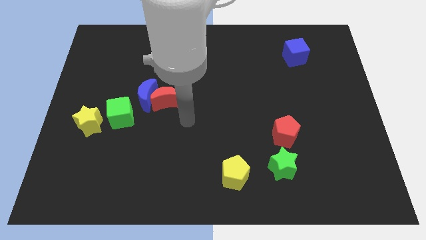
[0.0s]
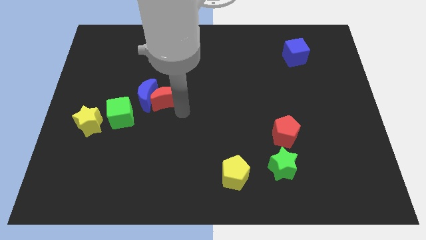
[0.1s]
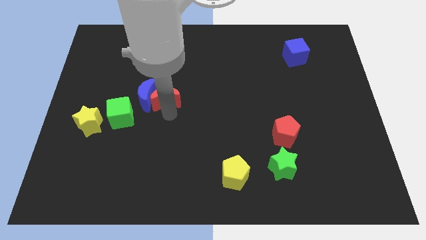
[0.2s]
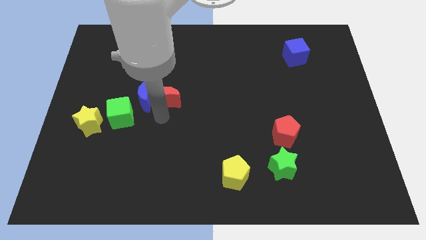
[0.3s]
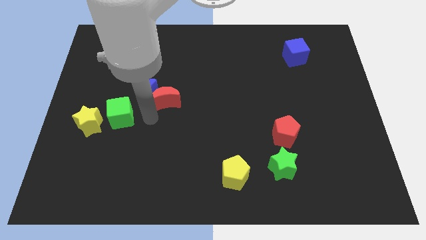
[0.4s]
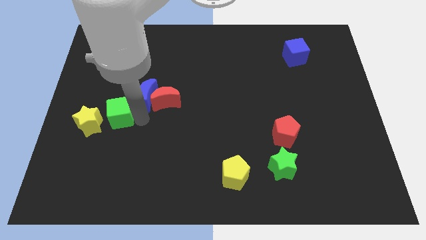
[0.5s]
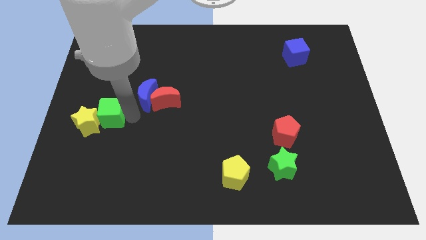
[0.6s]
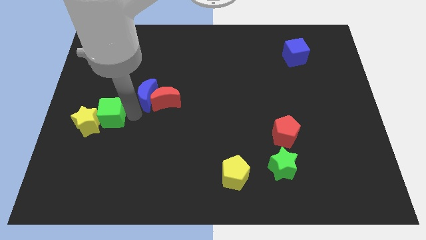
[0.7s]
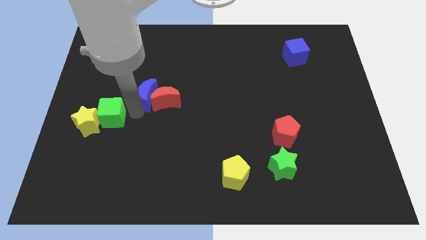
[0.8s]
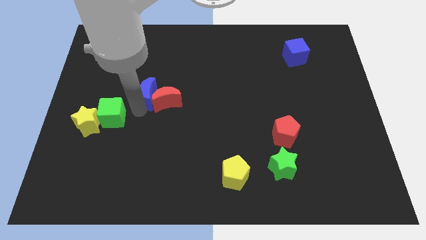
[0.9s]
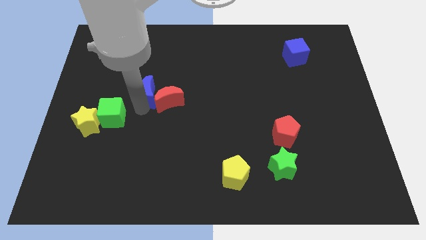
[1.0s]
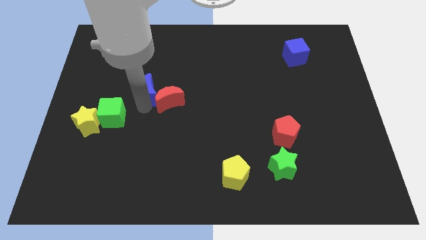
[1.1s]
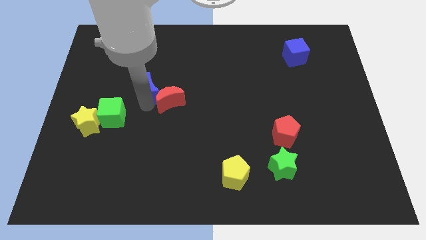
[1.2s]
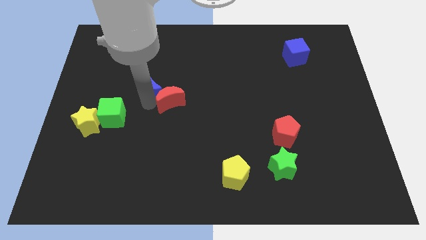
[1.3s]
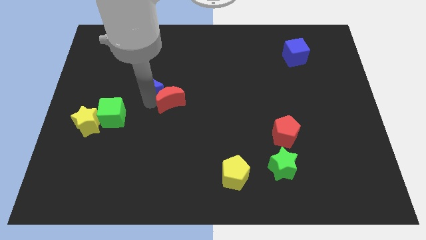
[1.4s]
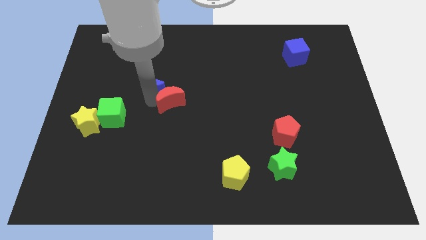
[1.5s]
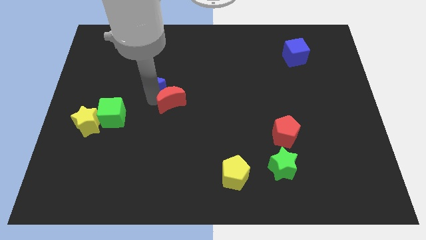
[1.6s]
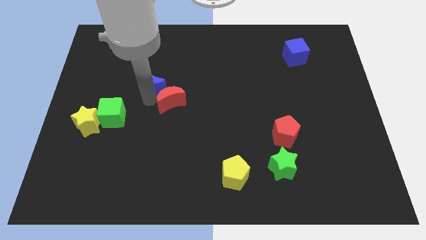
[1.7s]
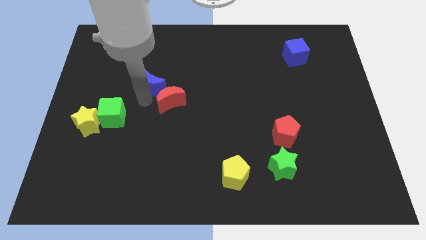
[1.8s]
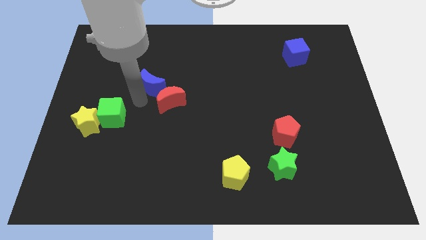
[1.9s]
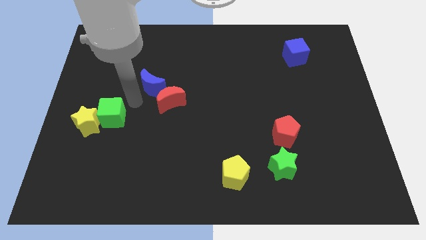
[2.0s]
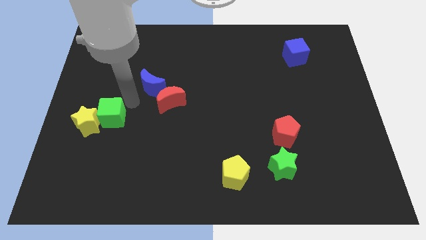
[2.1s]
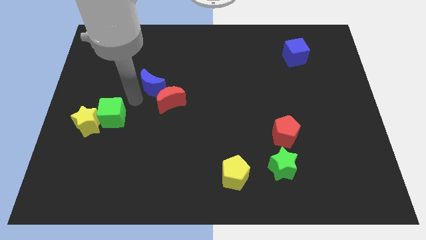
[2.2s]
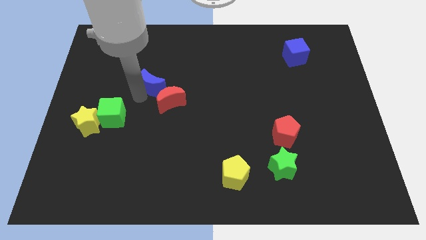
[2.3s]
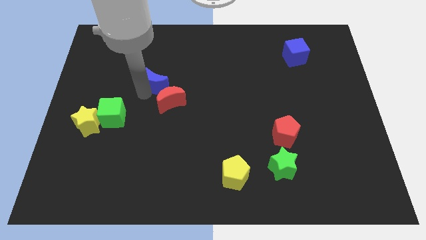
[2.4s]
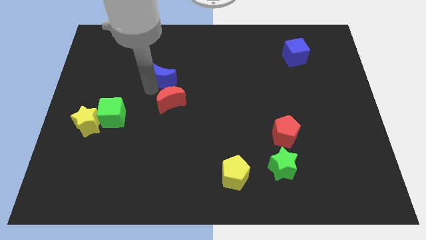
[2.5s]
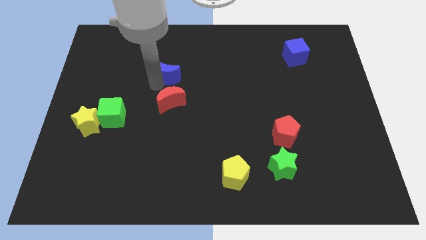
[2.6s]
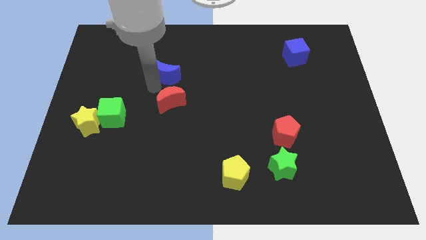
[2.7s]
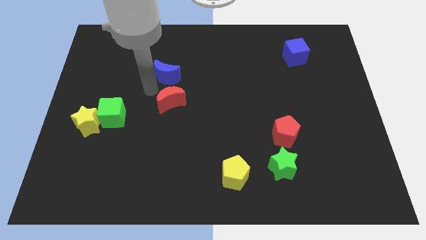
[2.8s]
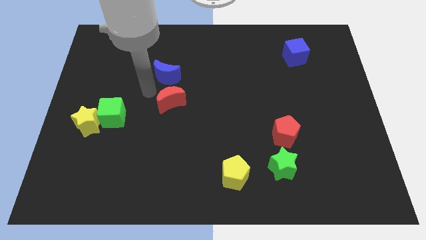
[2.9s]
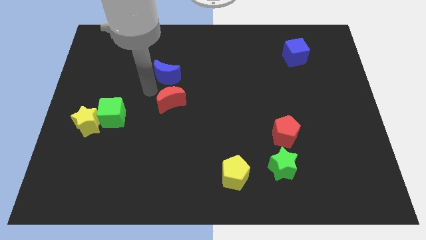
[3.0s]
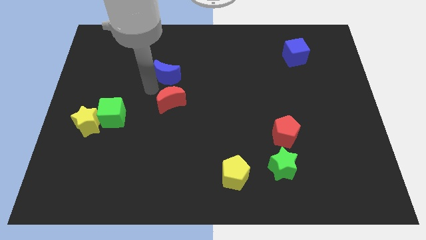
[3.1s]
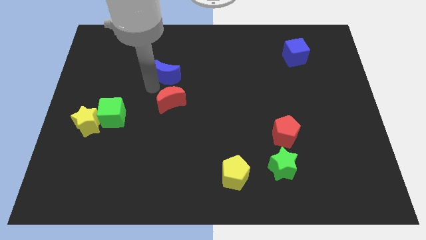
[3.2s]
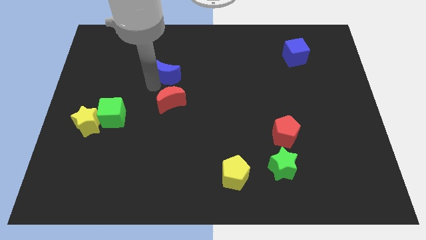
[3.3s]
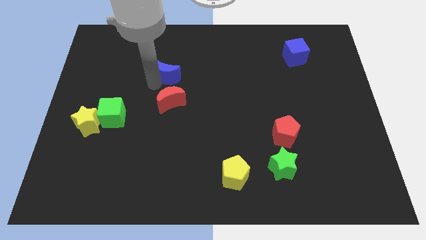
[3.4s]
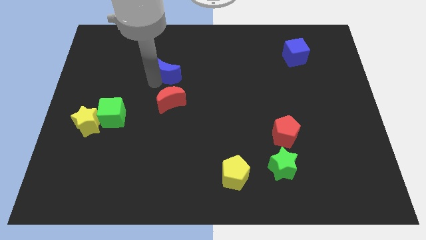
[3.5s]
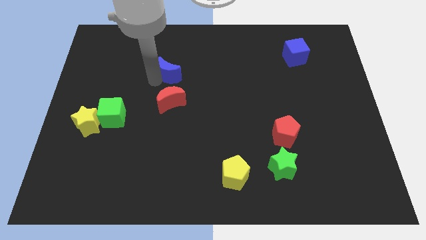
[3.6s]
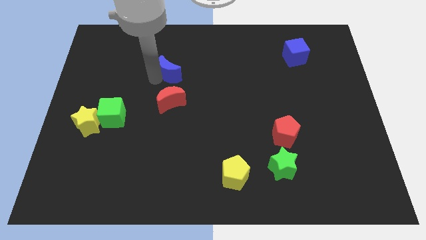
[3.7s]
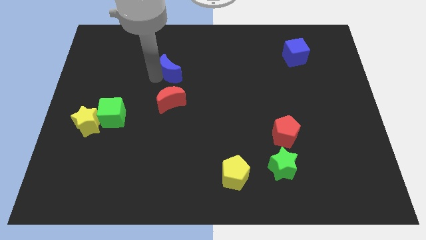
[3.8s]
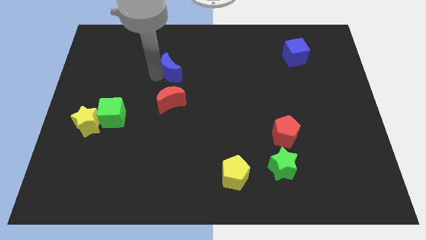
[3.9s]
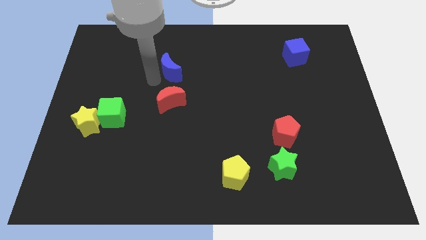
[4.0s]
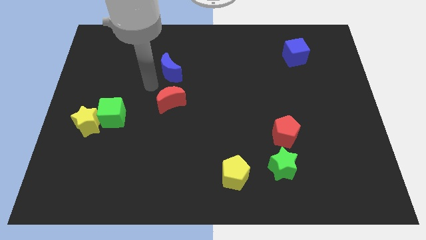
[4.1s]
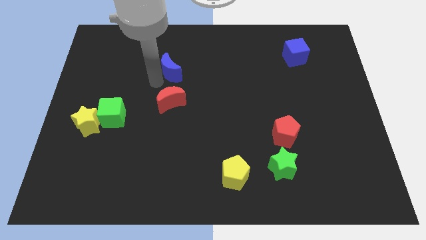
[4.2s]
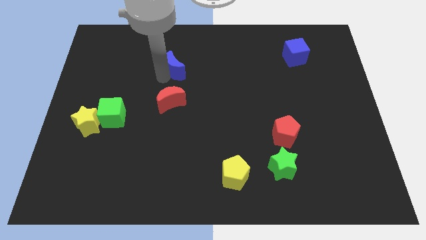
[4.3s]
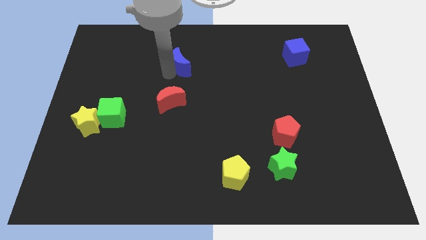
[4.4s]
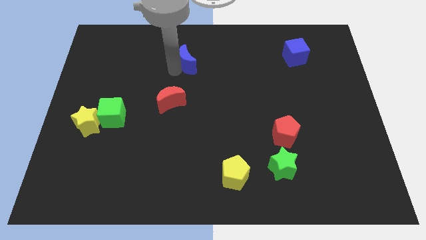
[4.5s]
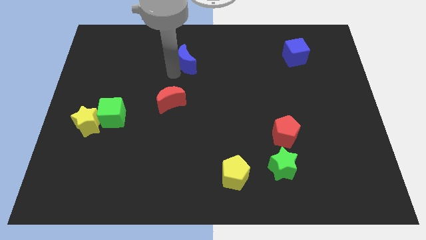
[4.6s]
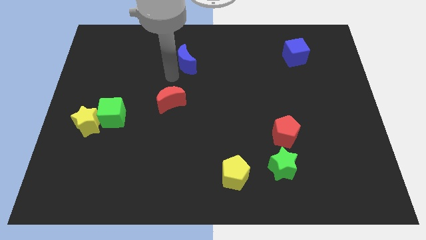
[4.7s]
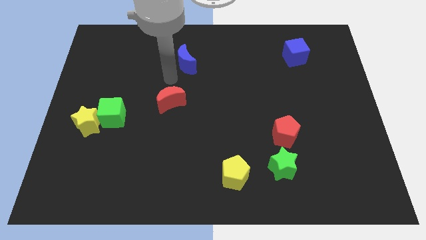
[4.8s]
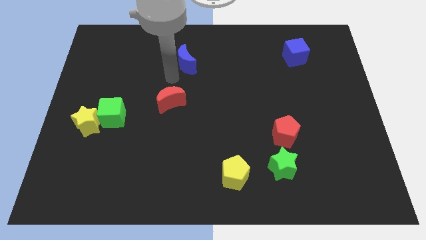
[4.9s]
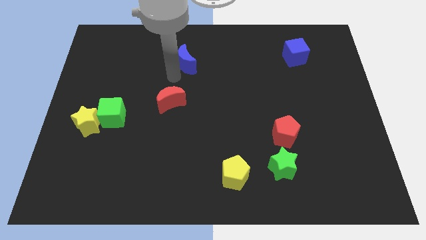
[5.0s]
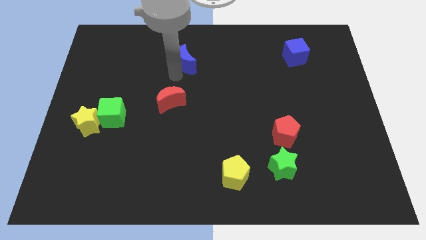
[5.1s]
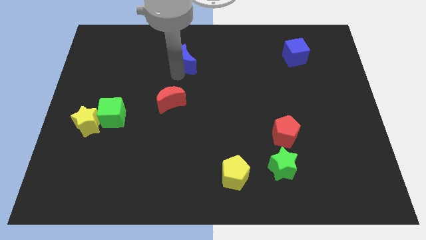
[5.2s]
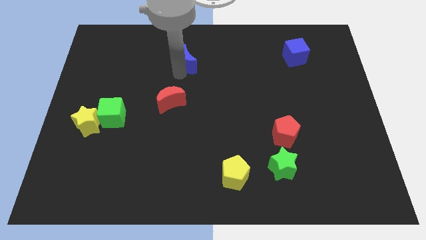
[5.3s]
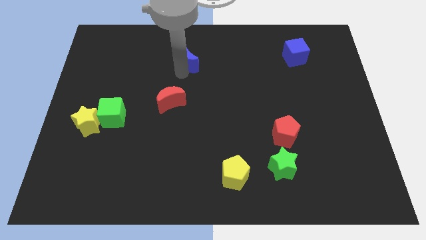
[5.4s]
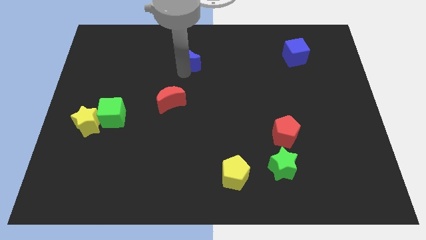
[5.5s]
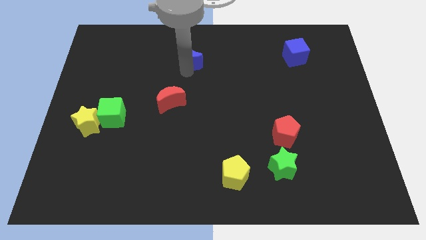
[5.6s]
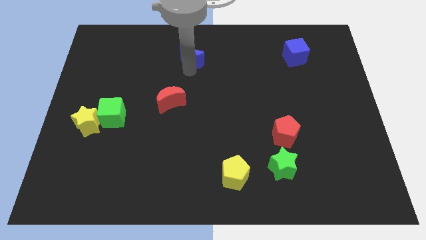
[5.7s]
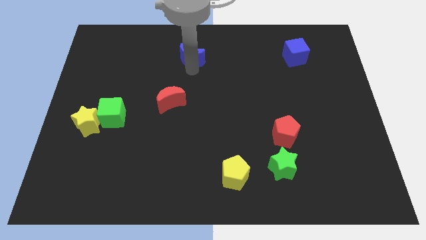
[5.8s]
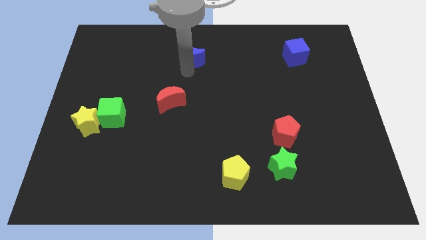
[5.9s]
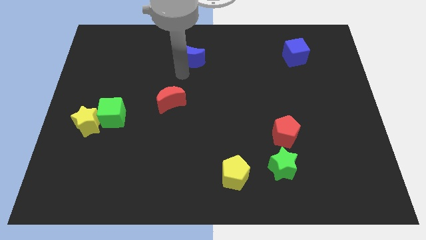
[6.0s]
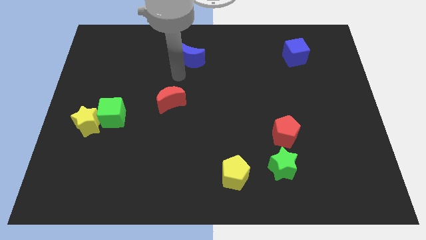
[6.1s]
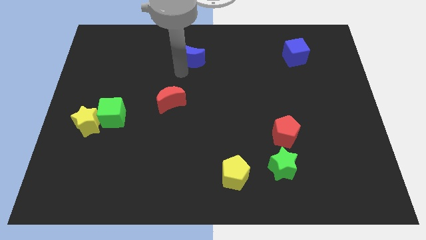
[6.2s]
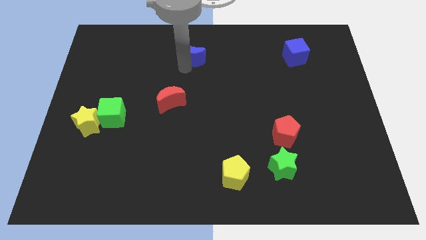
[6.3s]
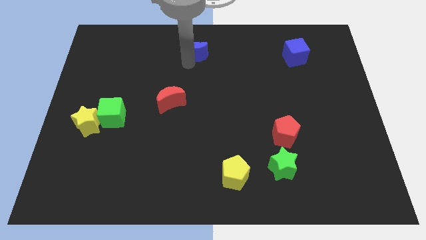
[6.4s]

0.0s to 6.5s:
move the blue moon to the towards your base
